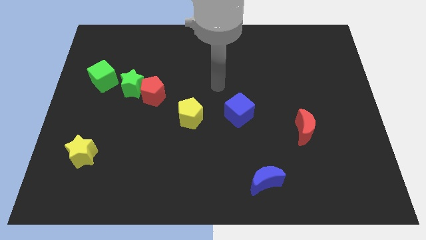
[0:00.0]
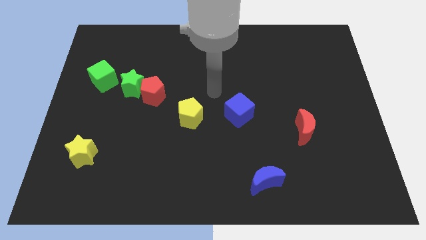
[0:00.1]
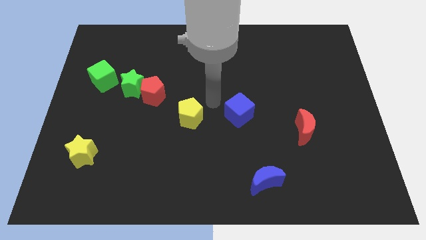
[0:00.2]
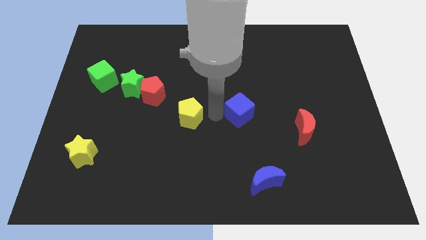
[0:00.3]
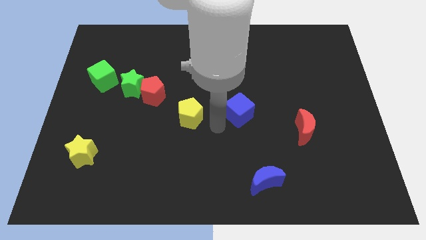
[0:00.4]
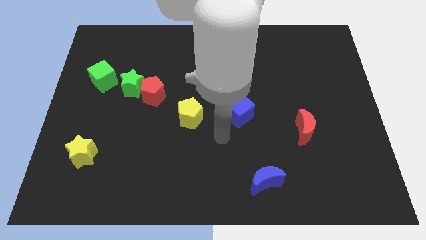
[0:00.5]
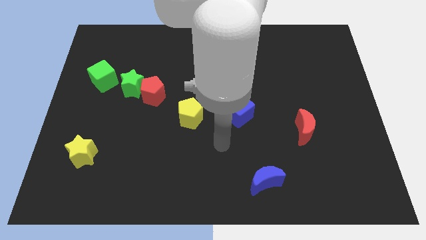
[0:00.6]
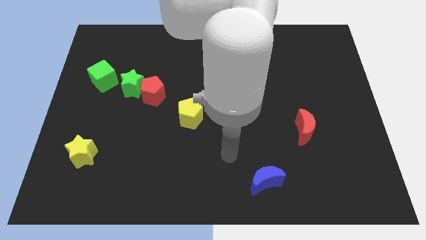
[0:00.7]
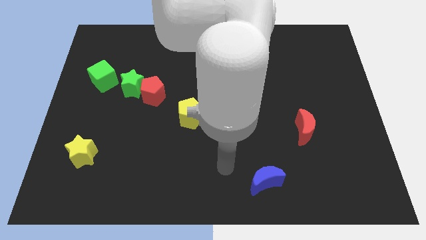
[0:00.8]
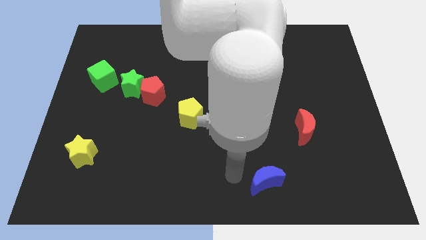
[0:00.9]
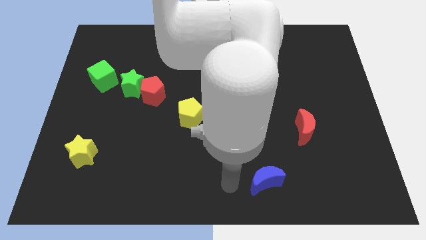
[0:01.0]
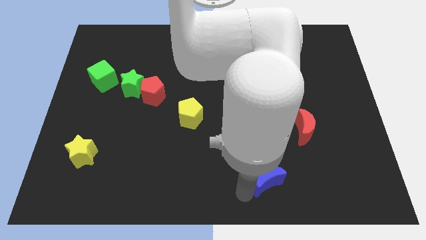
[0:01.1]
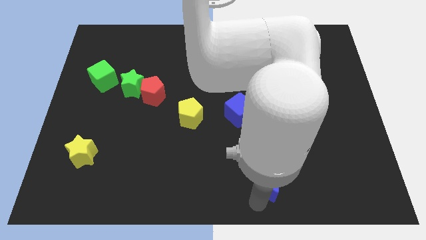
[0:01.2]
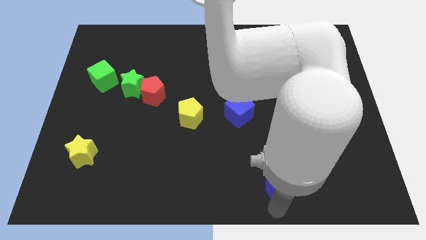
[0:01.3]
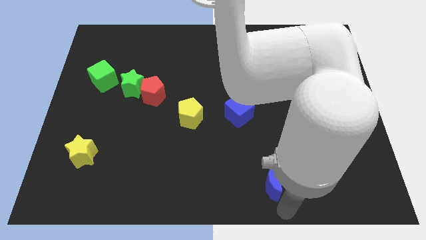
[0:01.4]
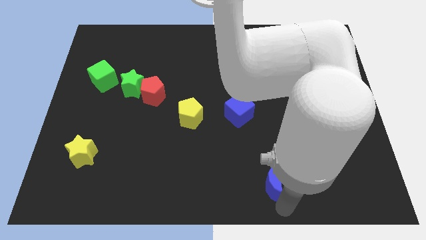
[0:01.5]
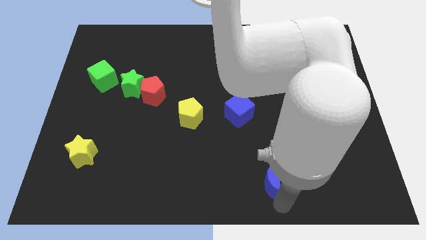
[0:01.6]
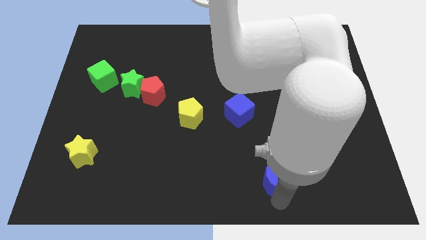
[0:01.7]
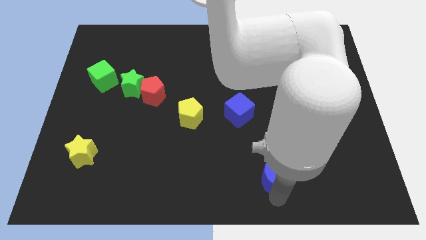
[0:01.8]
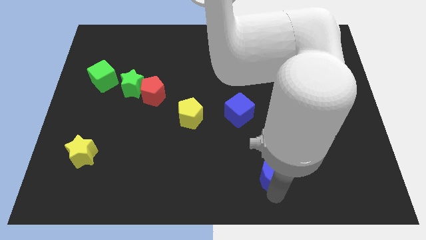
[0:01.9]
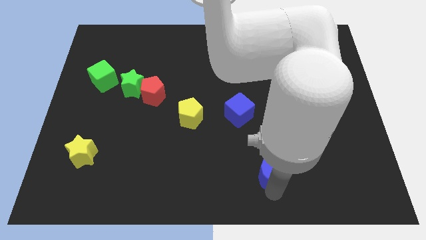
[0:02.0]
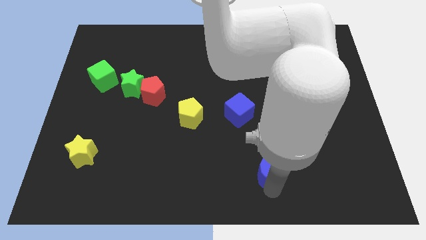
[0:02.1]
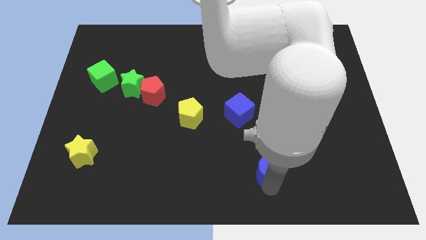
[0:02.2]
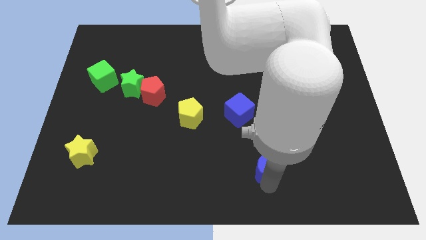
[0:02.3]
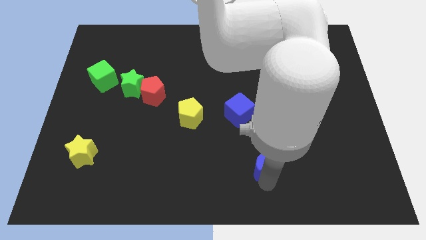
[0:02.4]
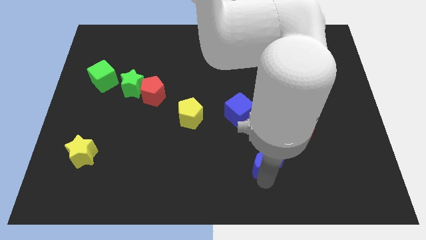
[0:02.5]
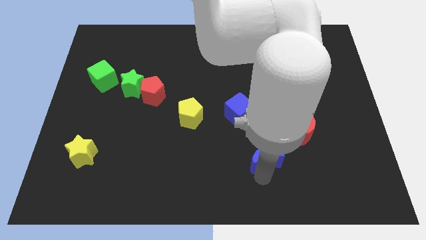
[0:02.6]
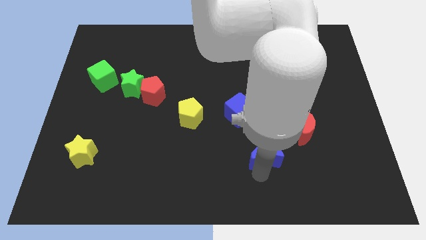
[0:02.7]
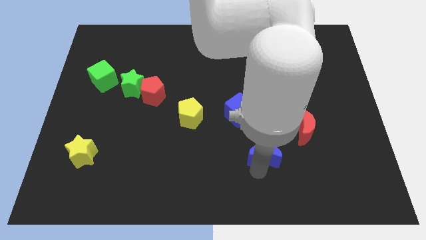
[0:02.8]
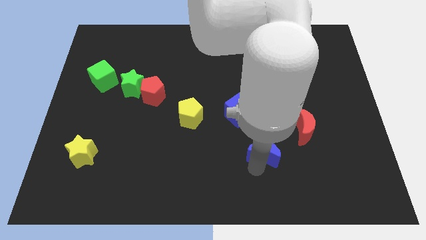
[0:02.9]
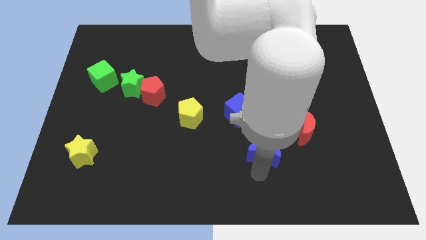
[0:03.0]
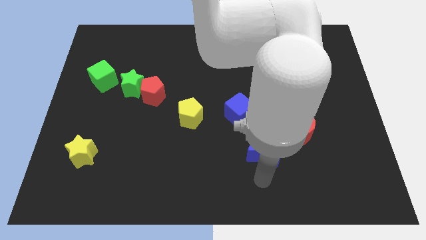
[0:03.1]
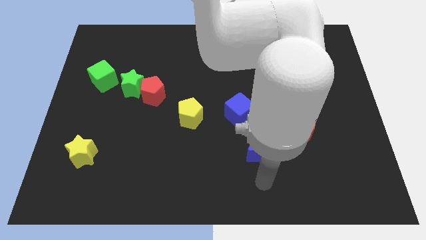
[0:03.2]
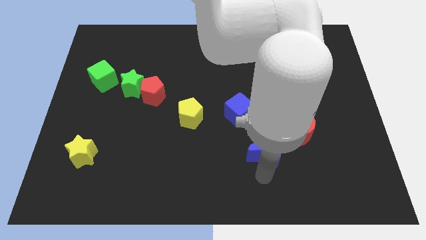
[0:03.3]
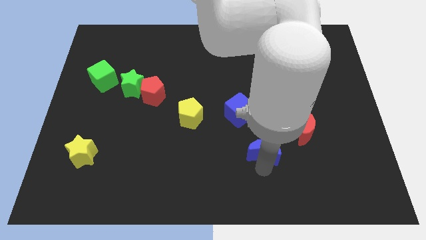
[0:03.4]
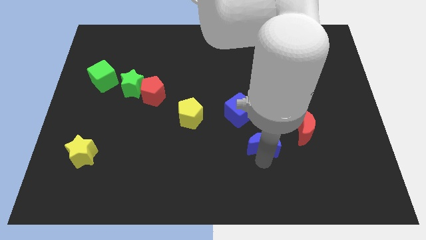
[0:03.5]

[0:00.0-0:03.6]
push the blue moon upwards a little

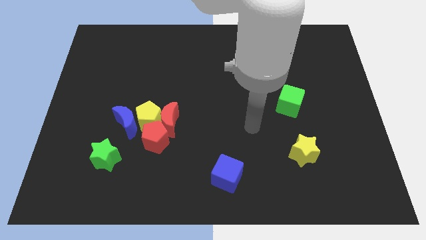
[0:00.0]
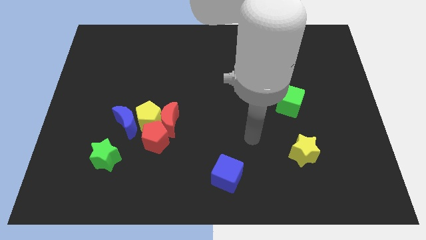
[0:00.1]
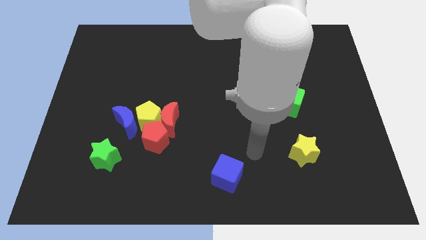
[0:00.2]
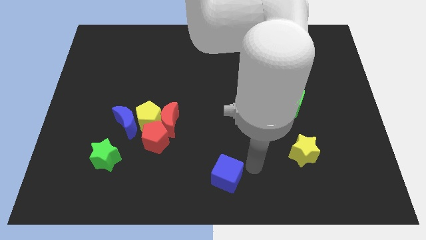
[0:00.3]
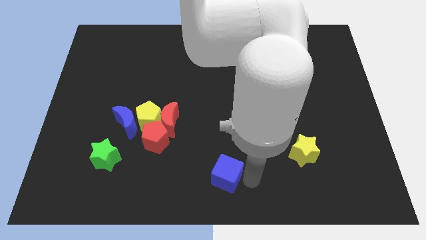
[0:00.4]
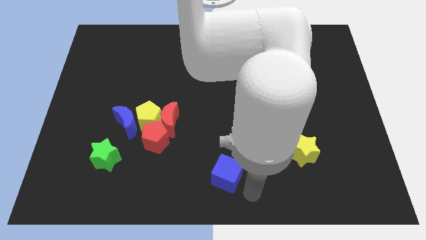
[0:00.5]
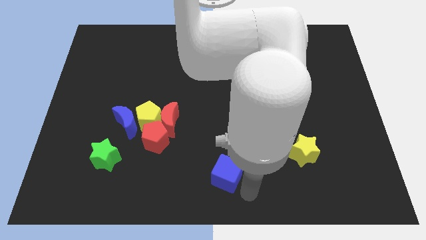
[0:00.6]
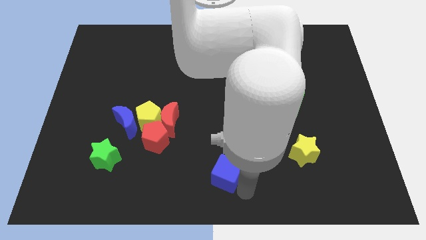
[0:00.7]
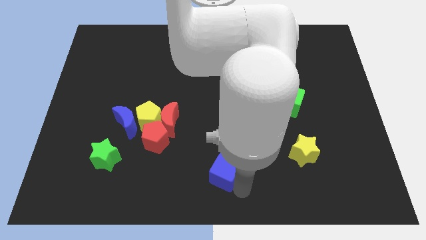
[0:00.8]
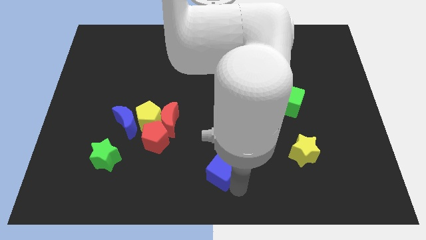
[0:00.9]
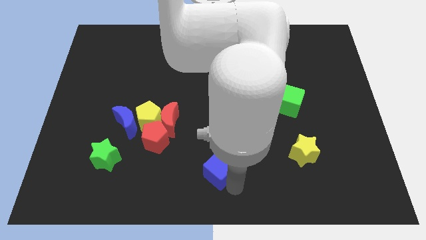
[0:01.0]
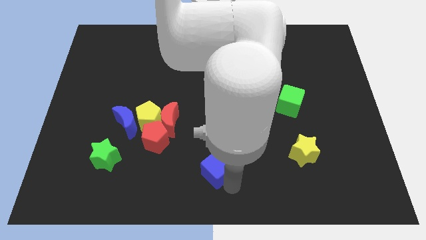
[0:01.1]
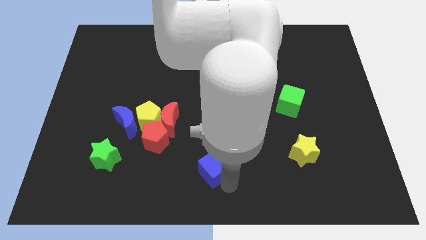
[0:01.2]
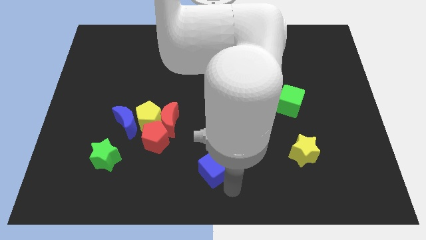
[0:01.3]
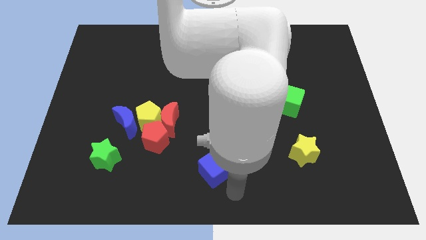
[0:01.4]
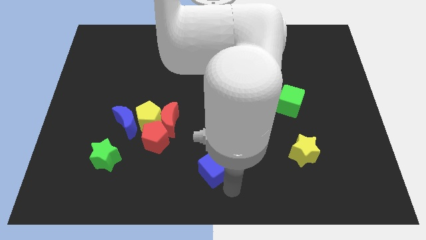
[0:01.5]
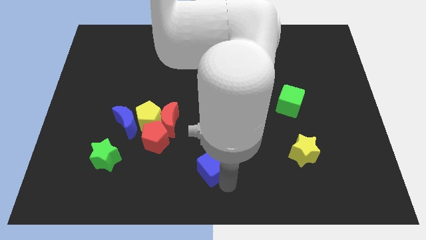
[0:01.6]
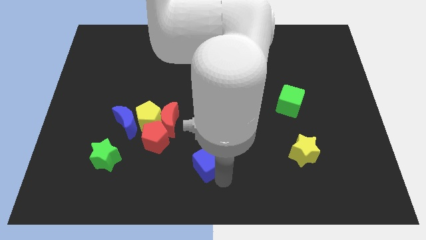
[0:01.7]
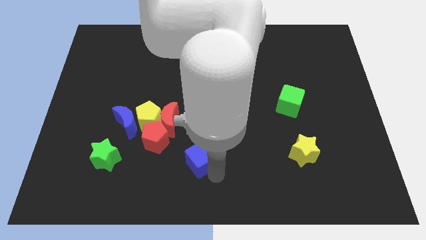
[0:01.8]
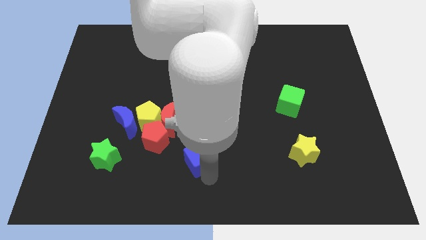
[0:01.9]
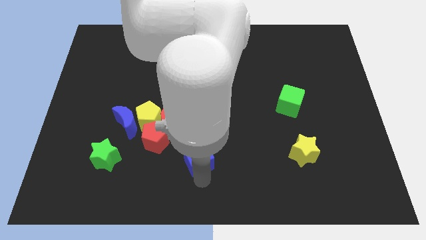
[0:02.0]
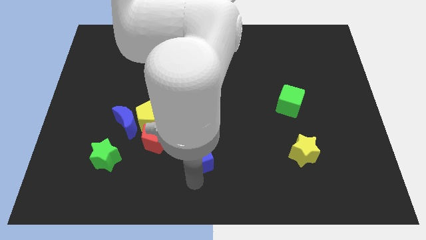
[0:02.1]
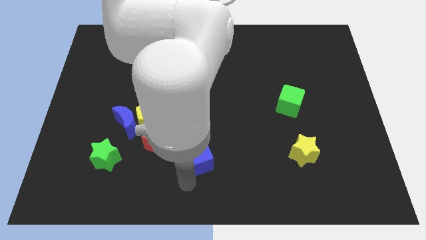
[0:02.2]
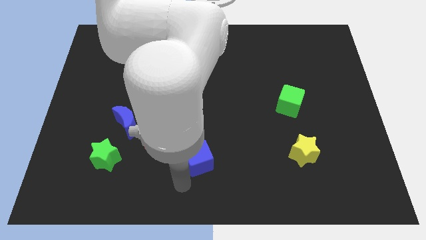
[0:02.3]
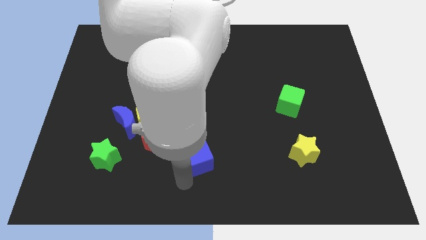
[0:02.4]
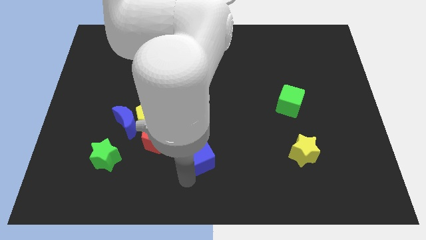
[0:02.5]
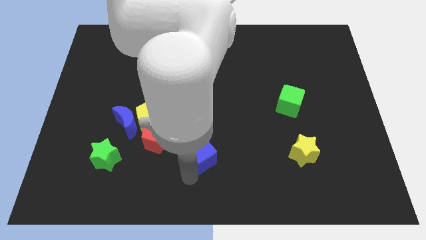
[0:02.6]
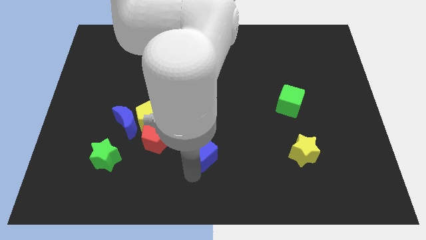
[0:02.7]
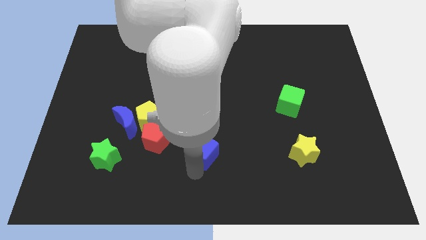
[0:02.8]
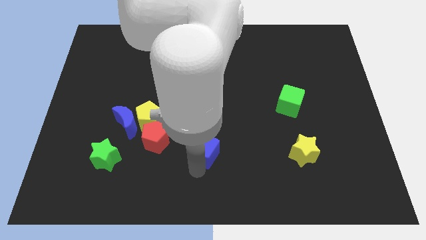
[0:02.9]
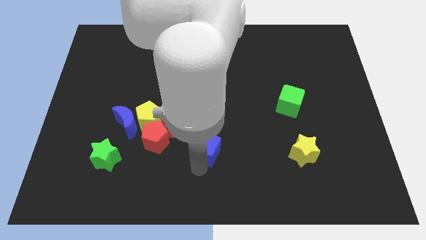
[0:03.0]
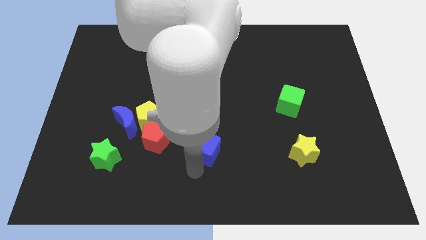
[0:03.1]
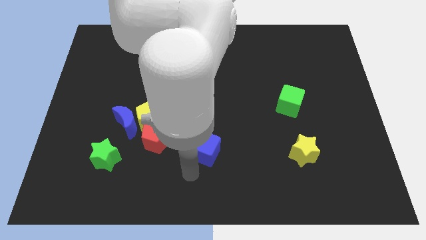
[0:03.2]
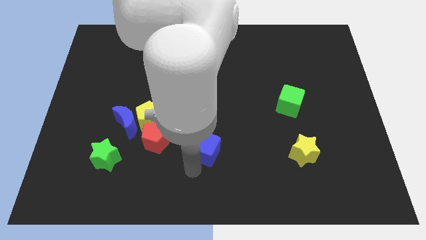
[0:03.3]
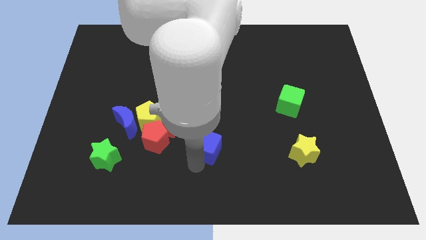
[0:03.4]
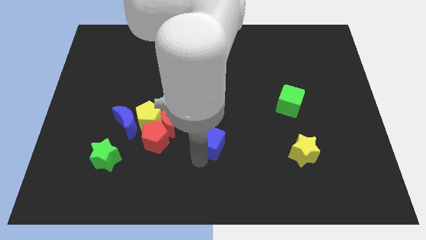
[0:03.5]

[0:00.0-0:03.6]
slide the blue cube a little bit upwards

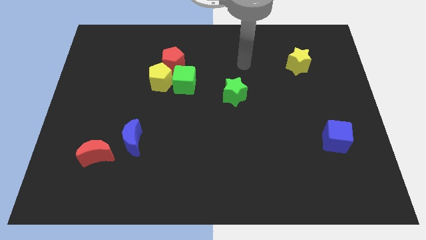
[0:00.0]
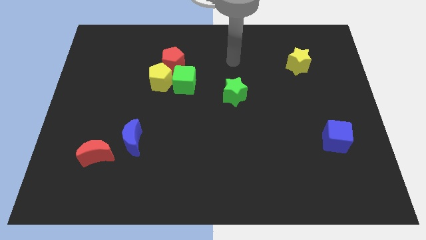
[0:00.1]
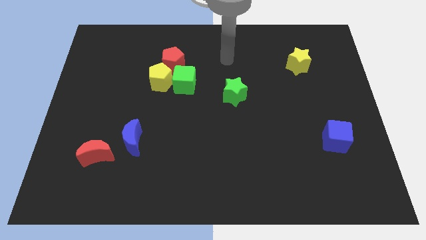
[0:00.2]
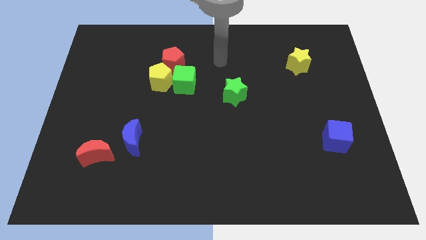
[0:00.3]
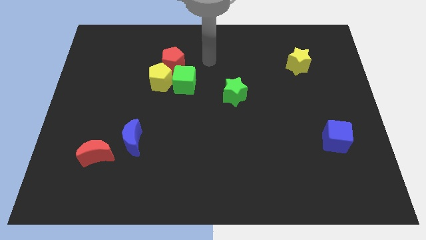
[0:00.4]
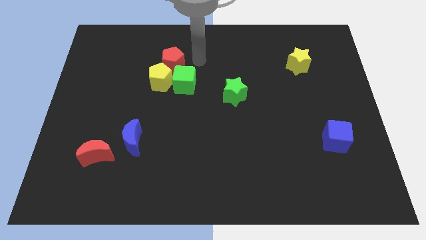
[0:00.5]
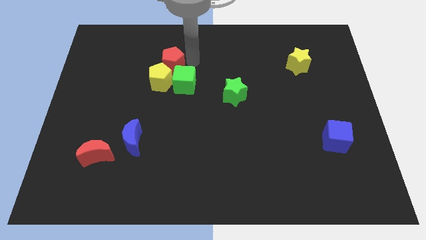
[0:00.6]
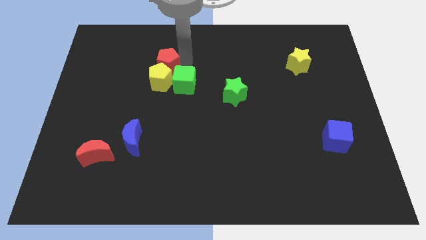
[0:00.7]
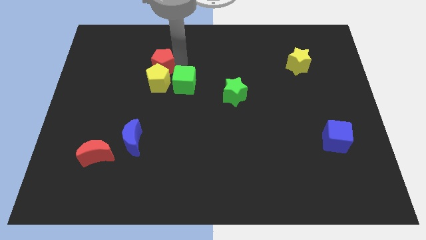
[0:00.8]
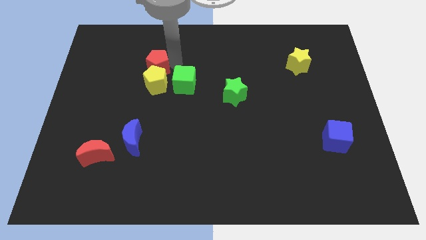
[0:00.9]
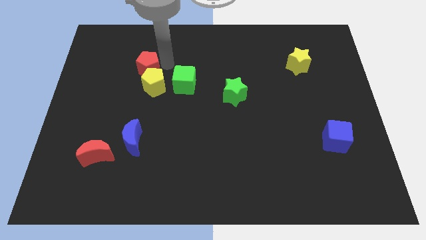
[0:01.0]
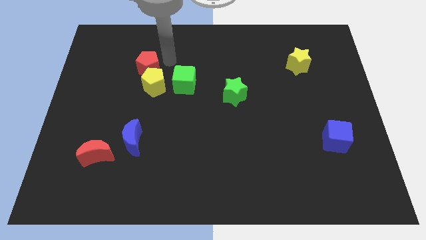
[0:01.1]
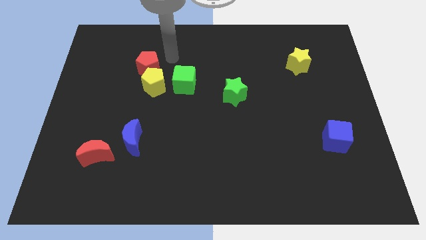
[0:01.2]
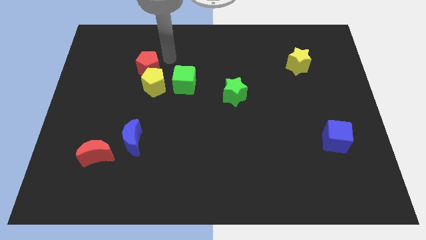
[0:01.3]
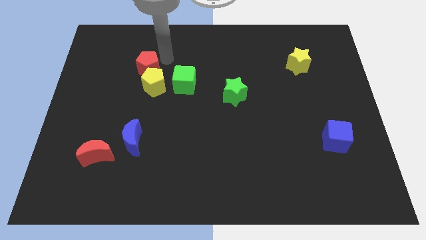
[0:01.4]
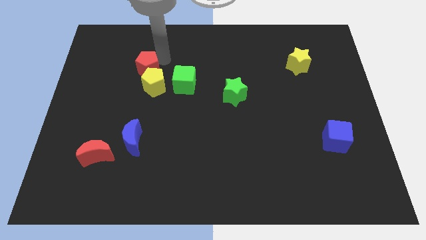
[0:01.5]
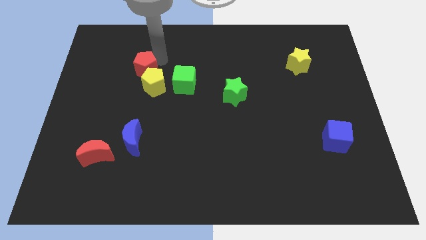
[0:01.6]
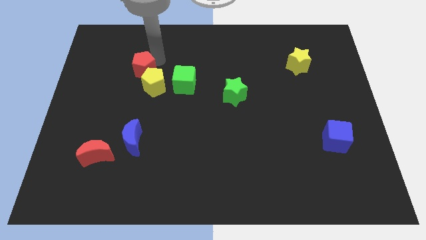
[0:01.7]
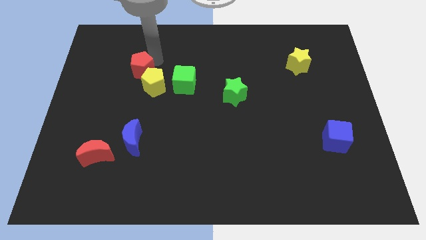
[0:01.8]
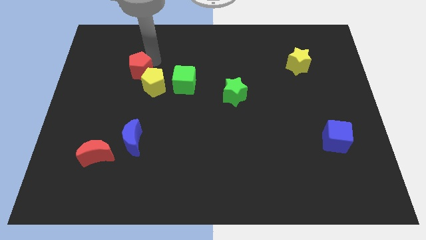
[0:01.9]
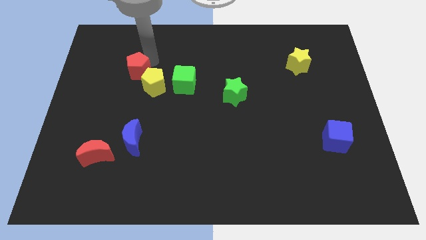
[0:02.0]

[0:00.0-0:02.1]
slightly move the red pentagon downwards and then left
